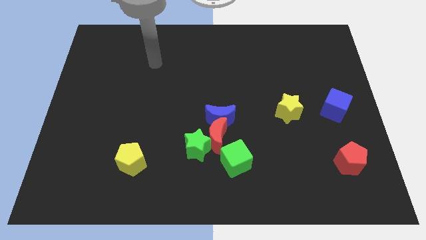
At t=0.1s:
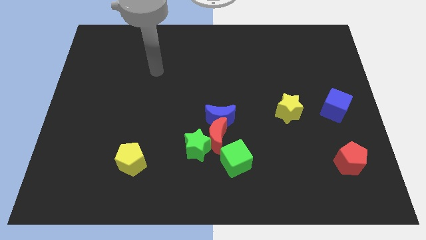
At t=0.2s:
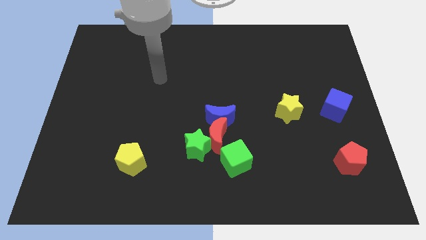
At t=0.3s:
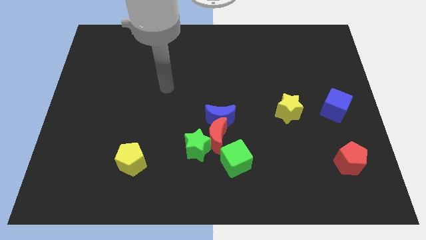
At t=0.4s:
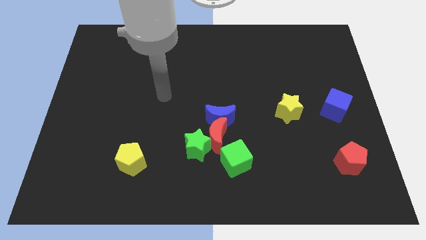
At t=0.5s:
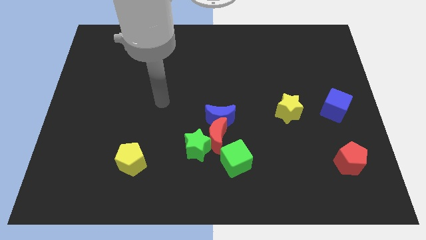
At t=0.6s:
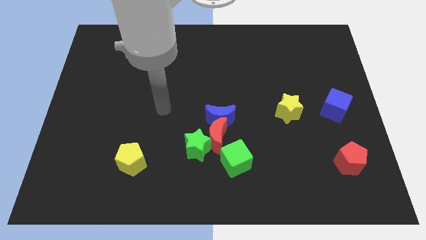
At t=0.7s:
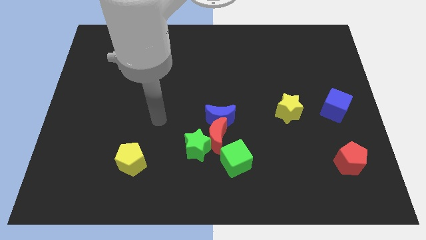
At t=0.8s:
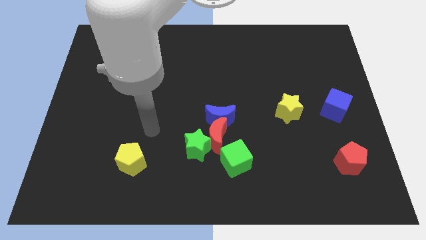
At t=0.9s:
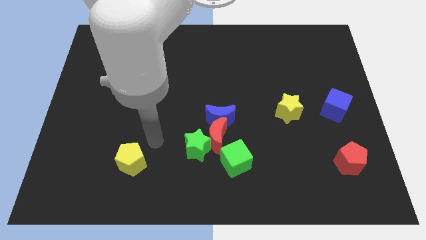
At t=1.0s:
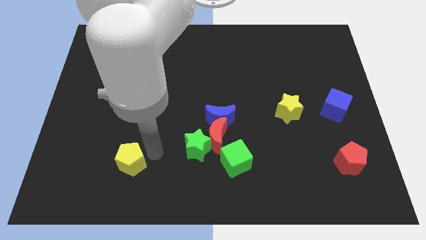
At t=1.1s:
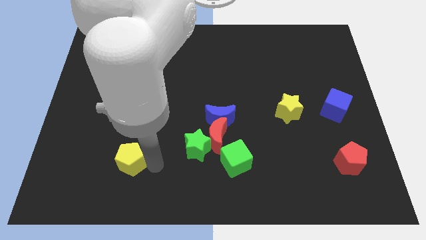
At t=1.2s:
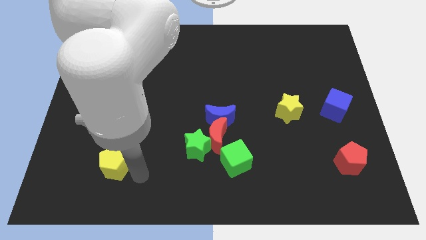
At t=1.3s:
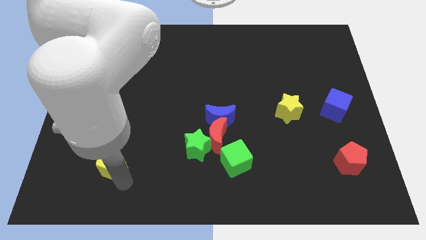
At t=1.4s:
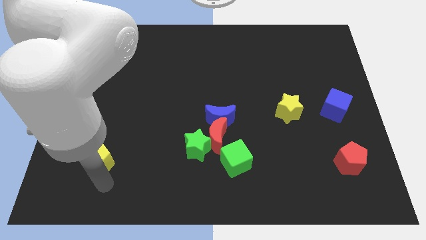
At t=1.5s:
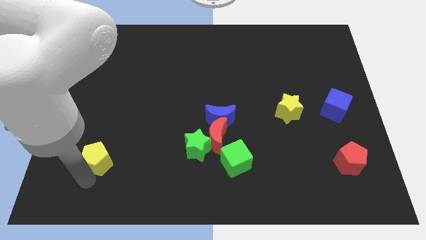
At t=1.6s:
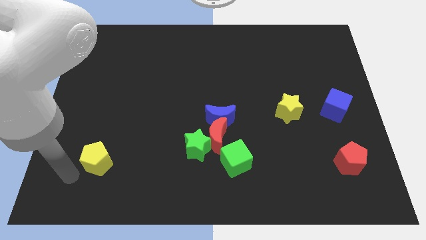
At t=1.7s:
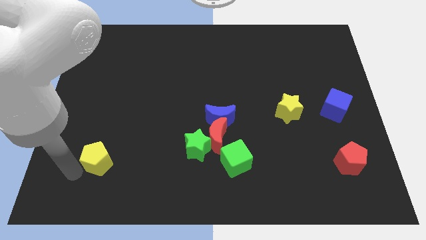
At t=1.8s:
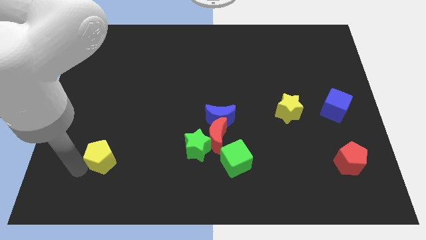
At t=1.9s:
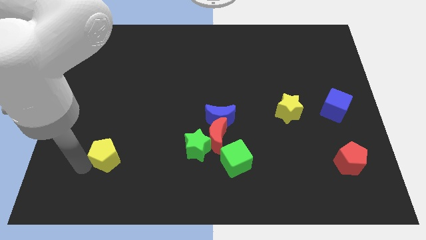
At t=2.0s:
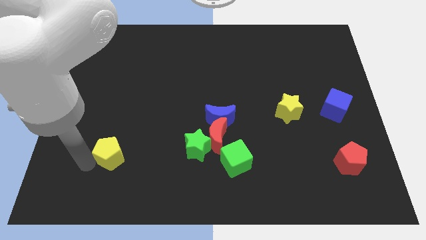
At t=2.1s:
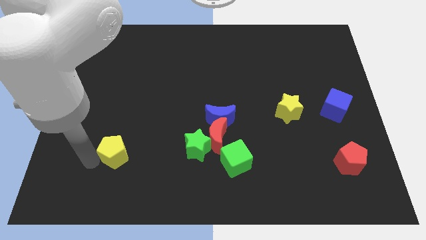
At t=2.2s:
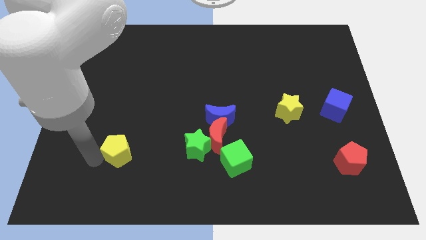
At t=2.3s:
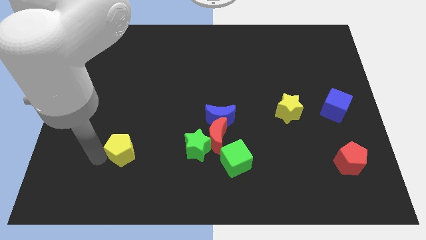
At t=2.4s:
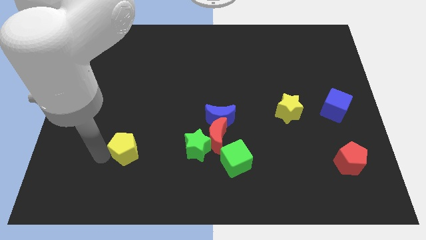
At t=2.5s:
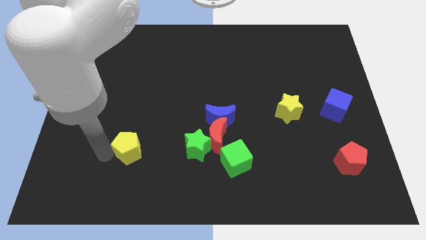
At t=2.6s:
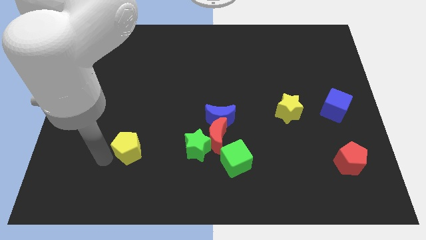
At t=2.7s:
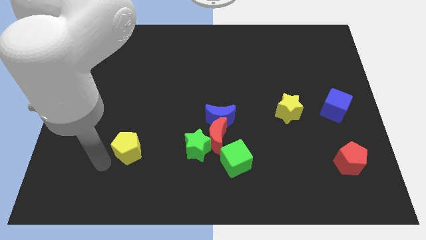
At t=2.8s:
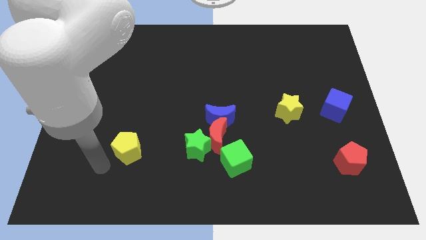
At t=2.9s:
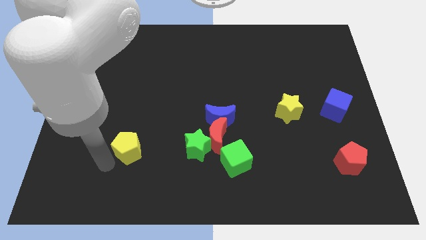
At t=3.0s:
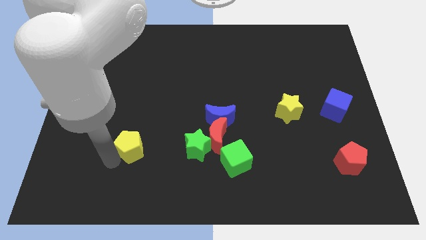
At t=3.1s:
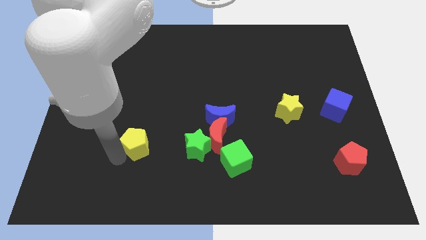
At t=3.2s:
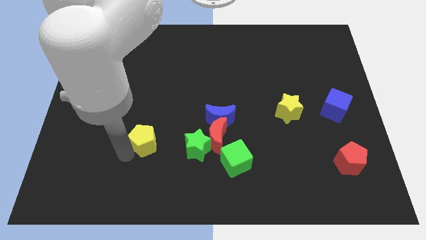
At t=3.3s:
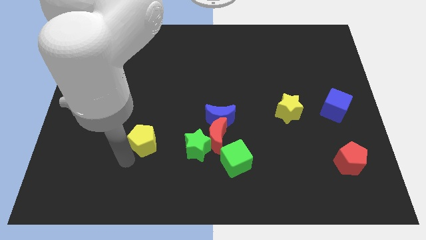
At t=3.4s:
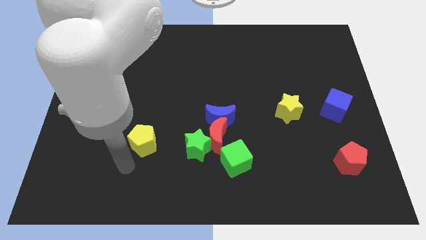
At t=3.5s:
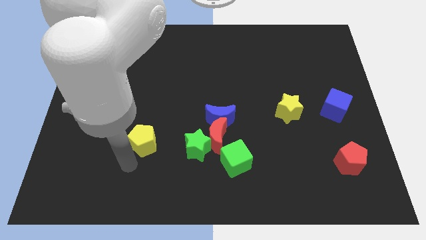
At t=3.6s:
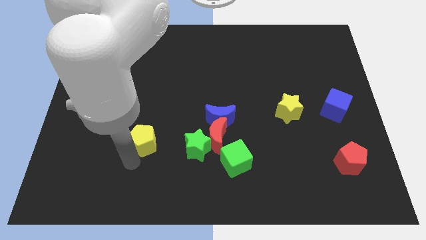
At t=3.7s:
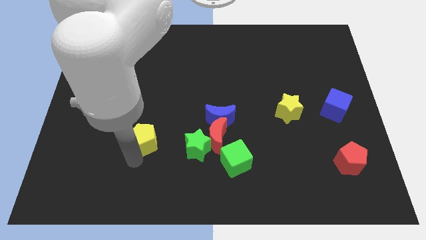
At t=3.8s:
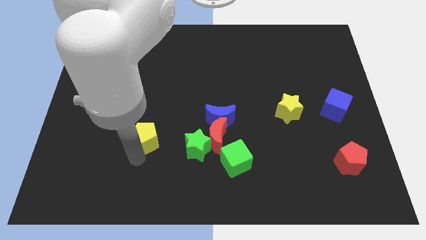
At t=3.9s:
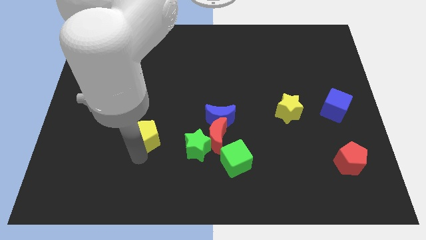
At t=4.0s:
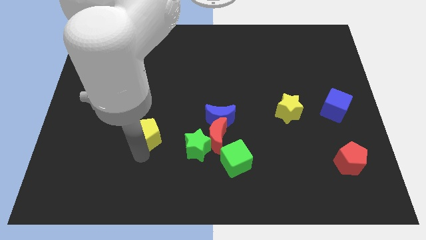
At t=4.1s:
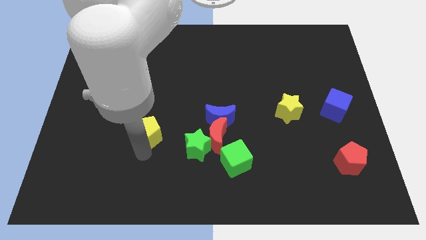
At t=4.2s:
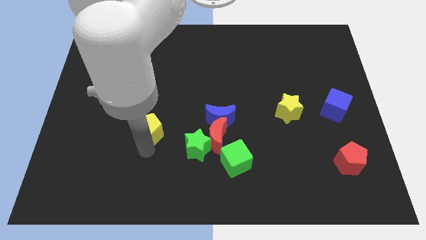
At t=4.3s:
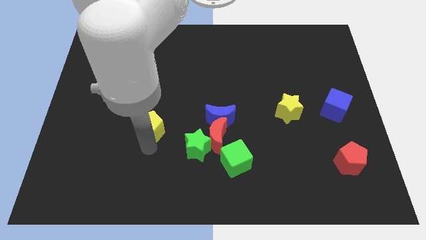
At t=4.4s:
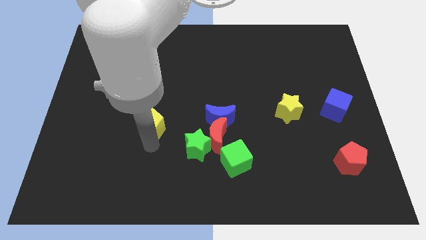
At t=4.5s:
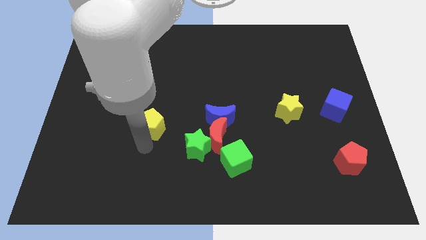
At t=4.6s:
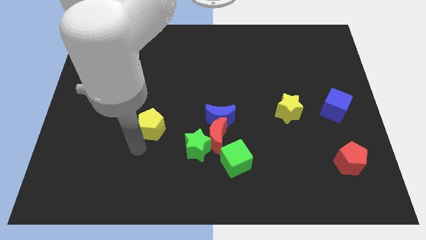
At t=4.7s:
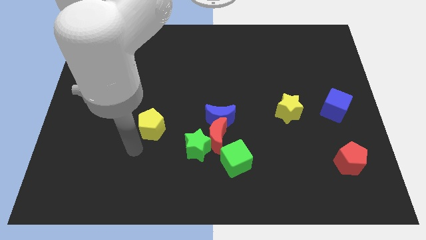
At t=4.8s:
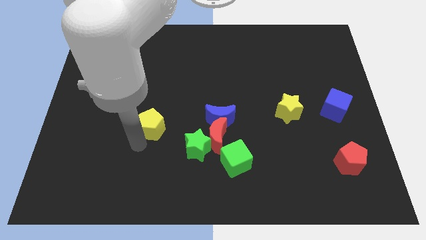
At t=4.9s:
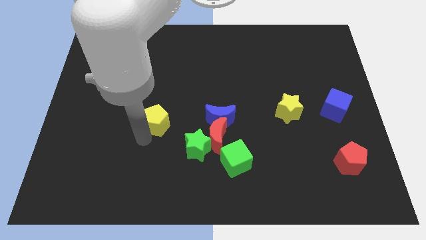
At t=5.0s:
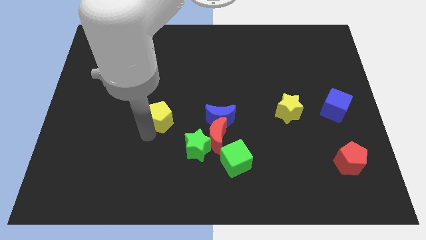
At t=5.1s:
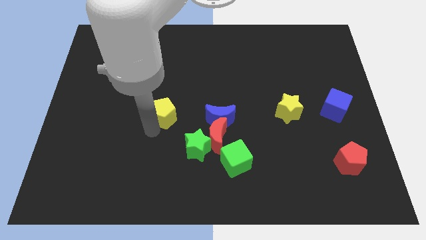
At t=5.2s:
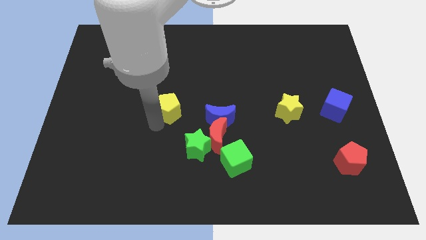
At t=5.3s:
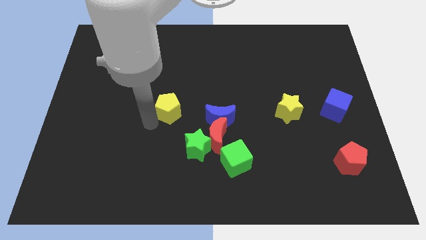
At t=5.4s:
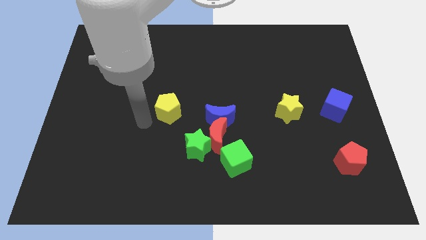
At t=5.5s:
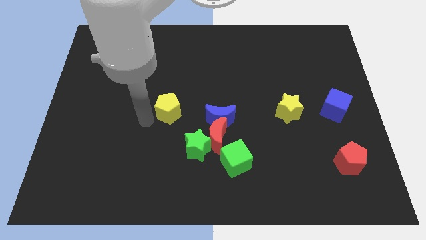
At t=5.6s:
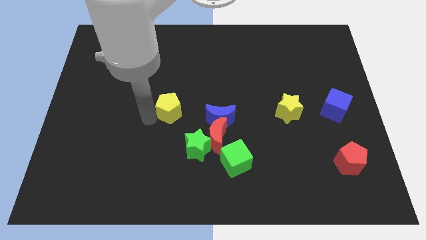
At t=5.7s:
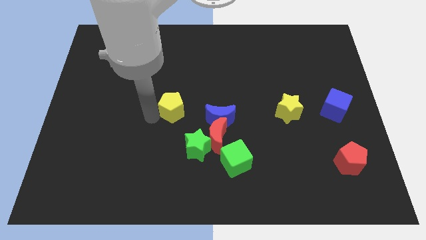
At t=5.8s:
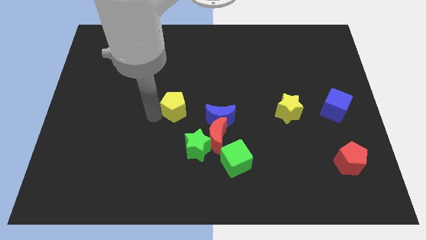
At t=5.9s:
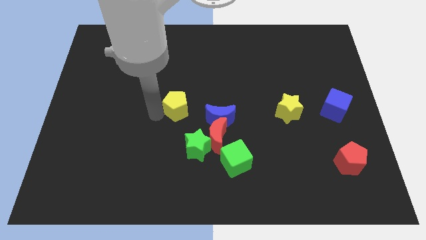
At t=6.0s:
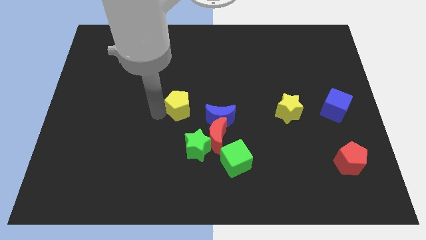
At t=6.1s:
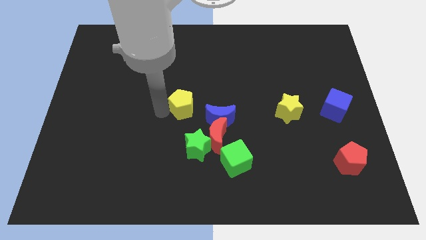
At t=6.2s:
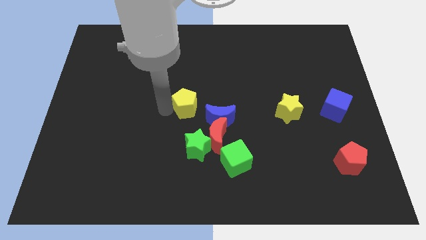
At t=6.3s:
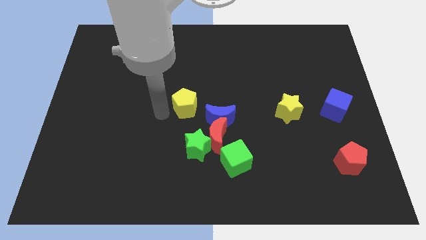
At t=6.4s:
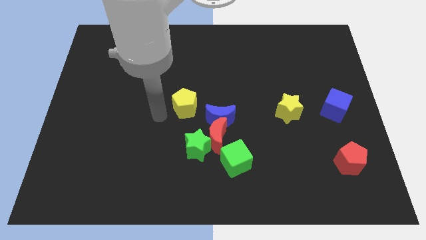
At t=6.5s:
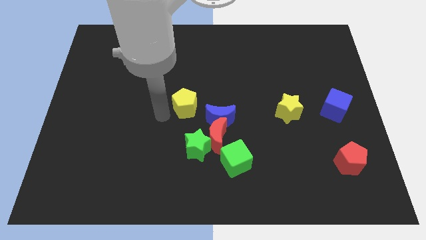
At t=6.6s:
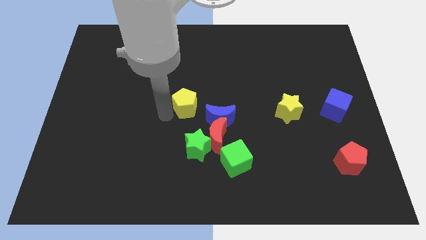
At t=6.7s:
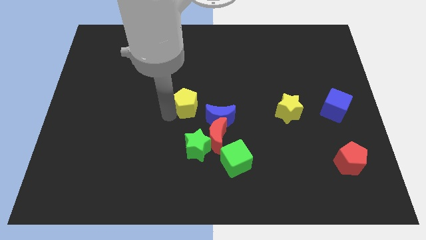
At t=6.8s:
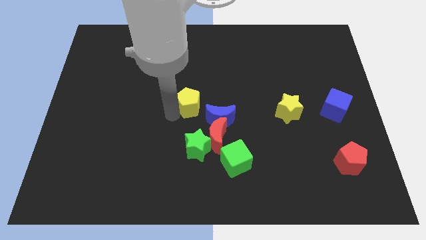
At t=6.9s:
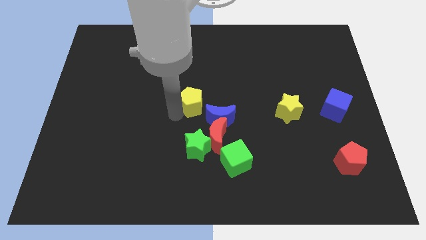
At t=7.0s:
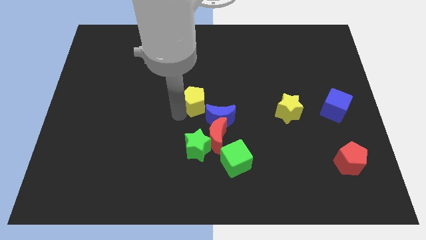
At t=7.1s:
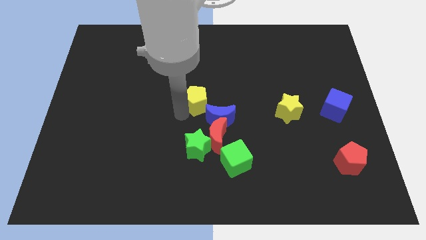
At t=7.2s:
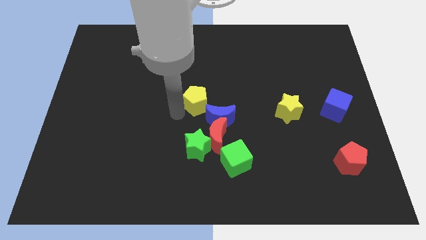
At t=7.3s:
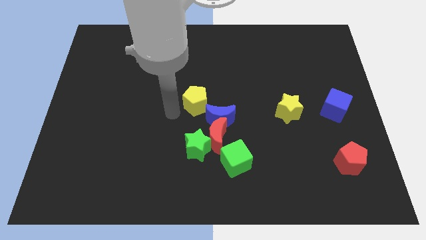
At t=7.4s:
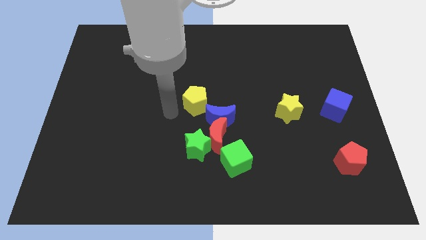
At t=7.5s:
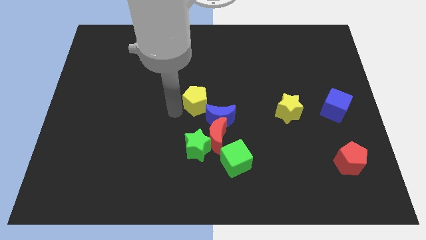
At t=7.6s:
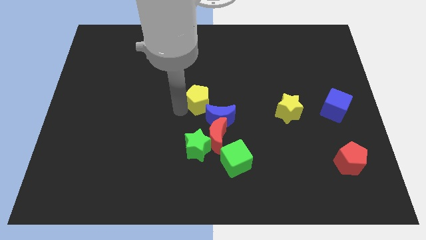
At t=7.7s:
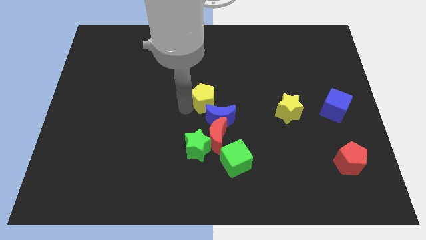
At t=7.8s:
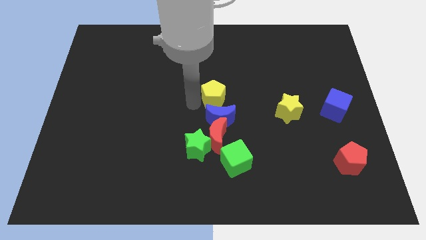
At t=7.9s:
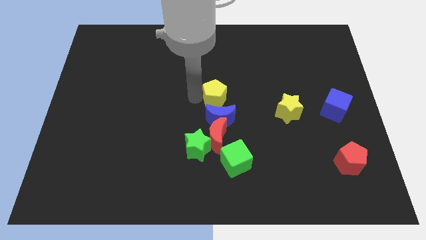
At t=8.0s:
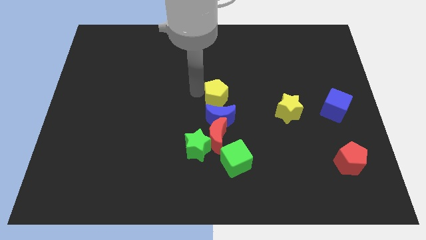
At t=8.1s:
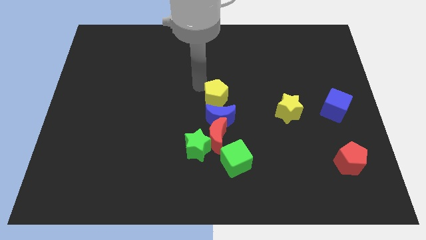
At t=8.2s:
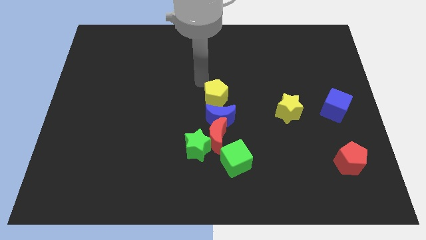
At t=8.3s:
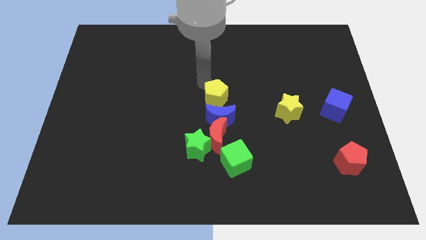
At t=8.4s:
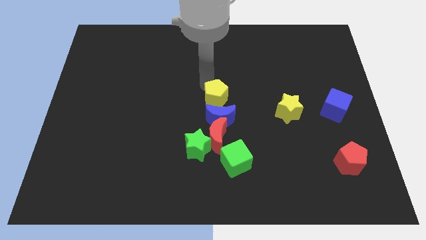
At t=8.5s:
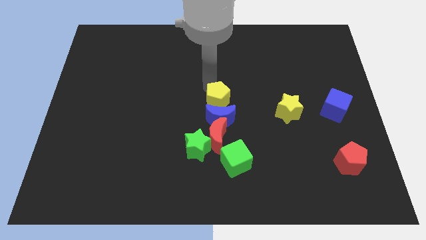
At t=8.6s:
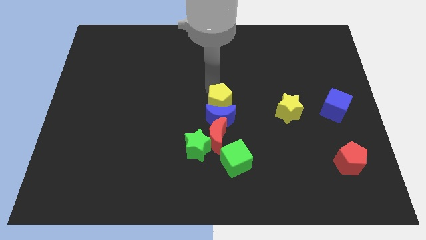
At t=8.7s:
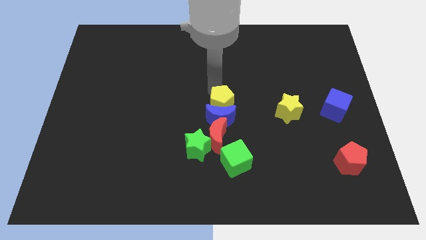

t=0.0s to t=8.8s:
slide the yellow pentagon above the green cube
